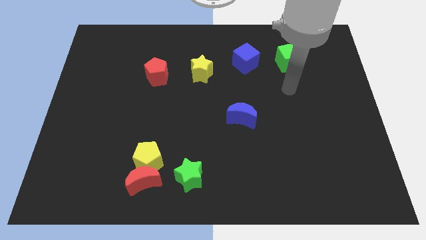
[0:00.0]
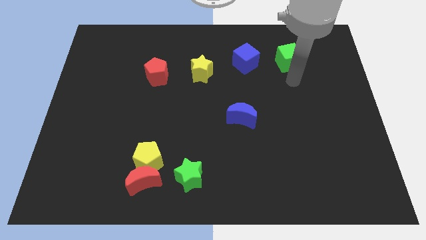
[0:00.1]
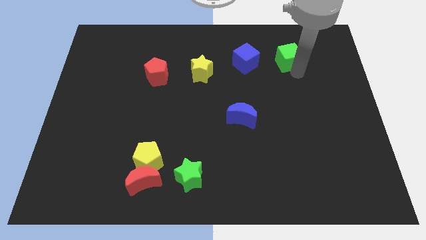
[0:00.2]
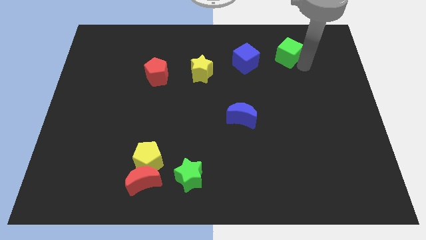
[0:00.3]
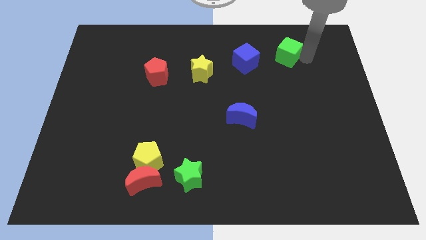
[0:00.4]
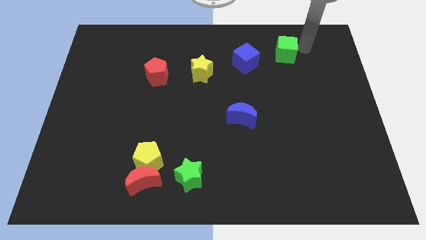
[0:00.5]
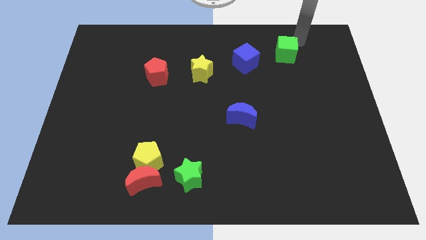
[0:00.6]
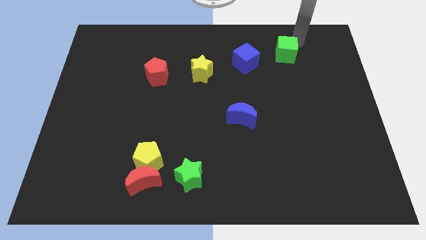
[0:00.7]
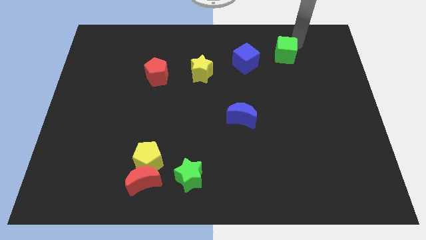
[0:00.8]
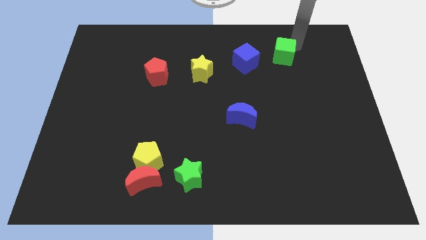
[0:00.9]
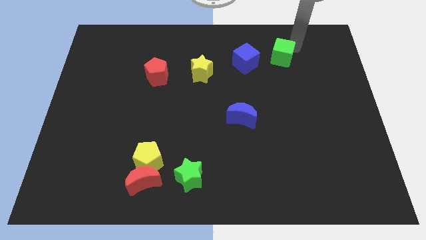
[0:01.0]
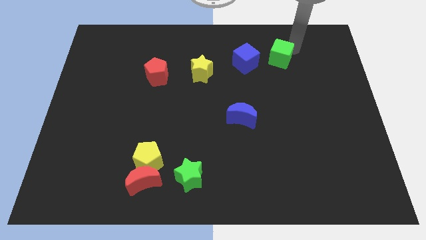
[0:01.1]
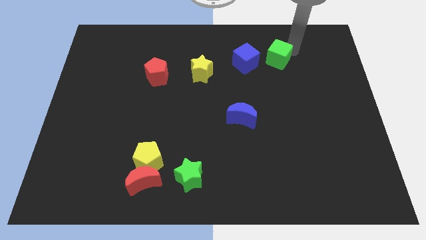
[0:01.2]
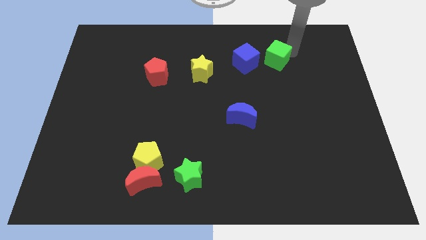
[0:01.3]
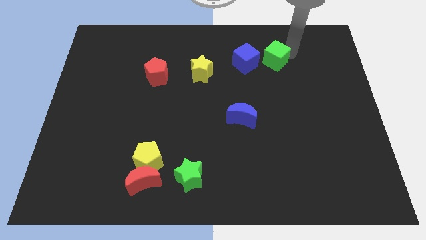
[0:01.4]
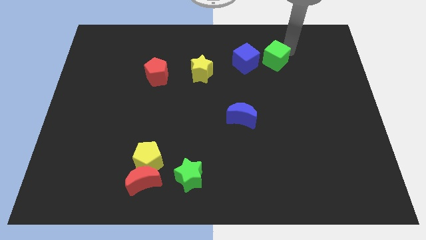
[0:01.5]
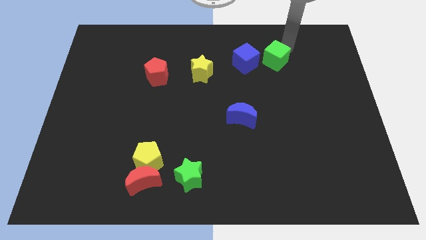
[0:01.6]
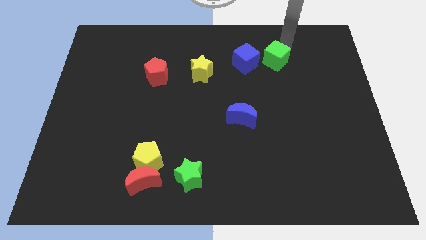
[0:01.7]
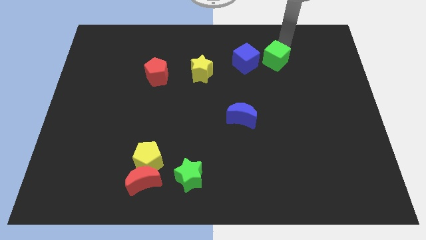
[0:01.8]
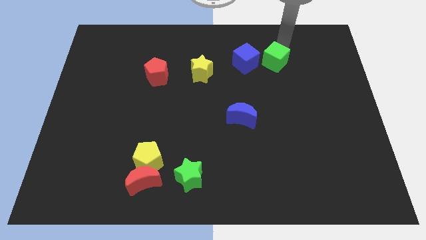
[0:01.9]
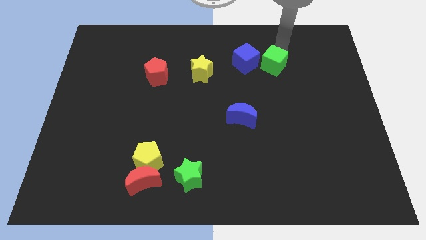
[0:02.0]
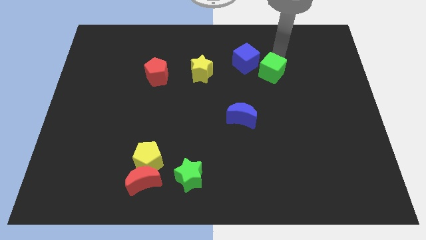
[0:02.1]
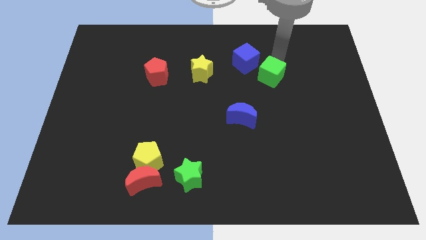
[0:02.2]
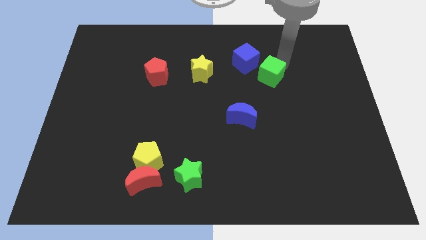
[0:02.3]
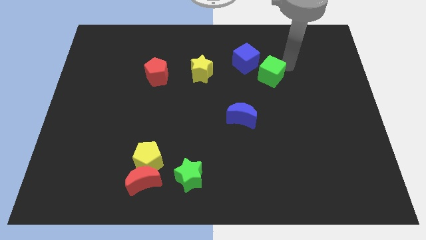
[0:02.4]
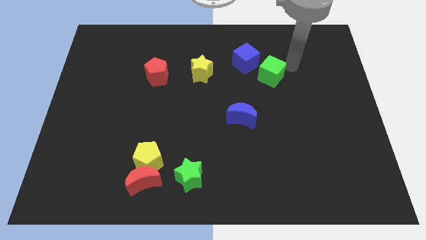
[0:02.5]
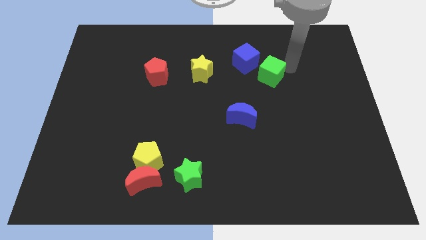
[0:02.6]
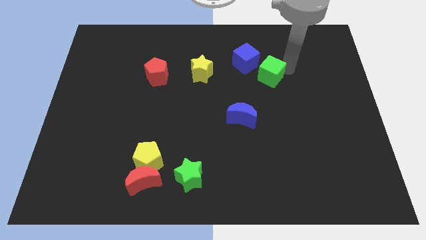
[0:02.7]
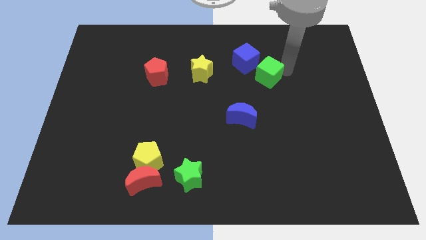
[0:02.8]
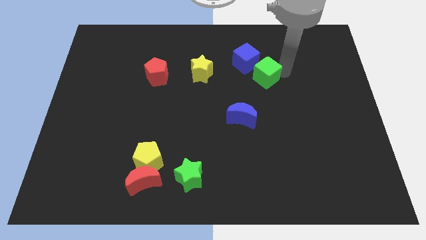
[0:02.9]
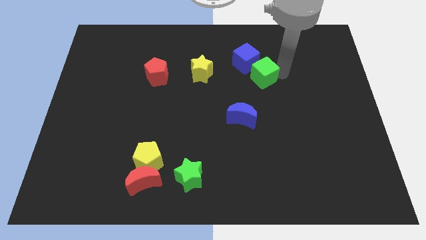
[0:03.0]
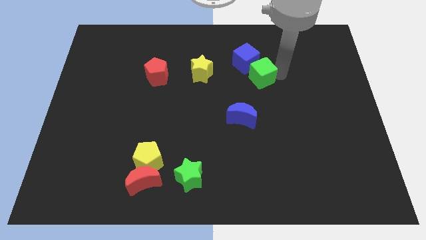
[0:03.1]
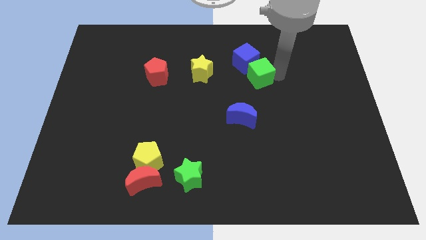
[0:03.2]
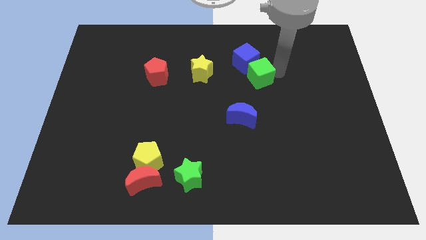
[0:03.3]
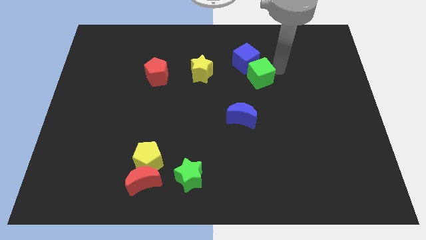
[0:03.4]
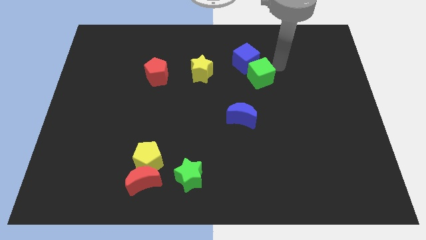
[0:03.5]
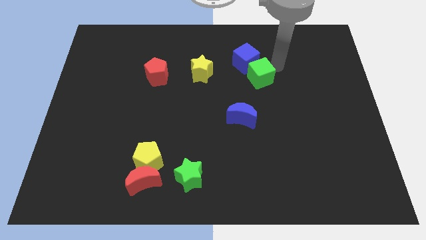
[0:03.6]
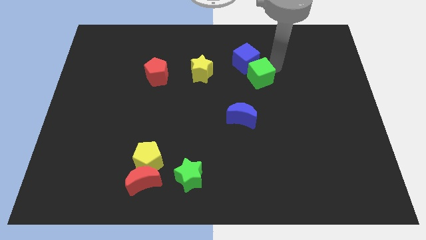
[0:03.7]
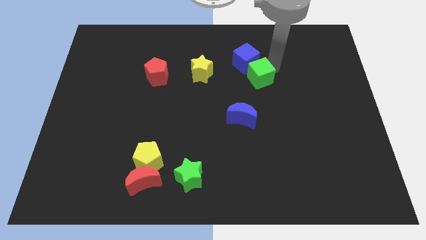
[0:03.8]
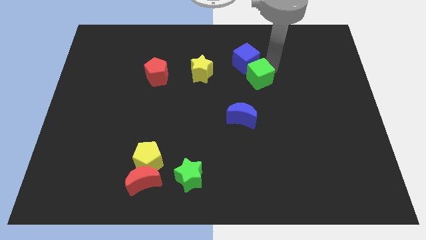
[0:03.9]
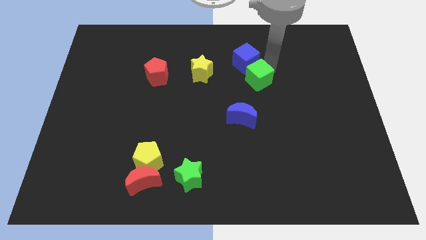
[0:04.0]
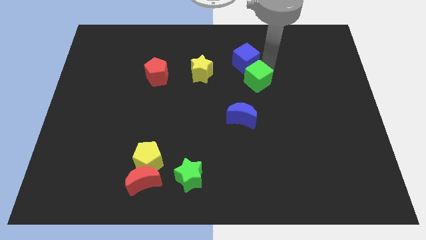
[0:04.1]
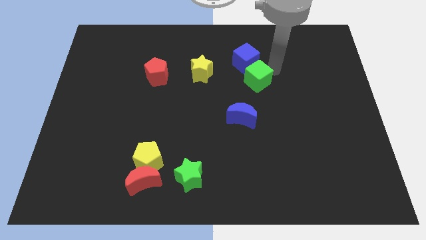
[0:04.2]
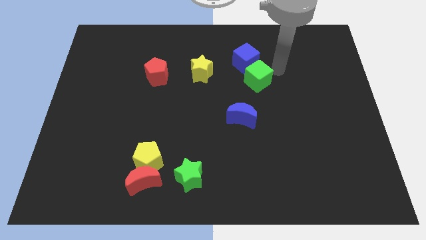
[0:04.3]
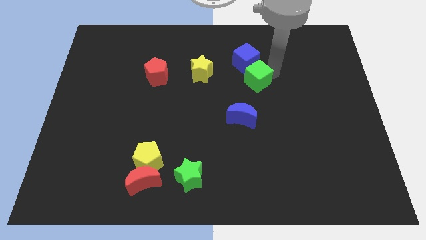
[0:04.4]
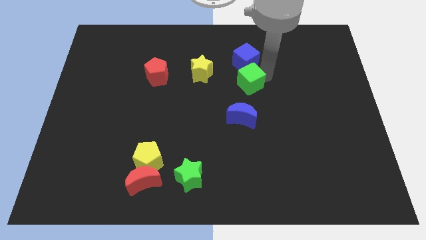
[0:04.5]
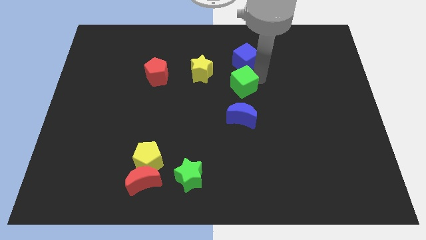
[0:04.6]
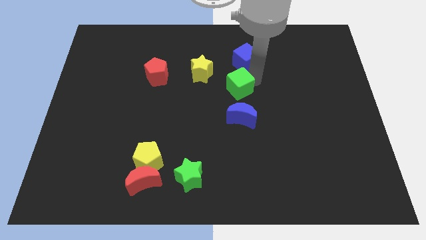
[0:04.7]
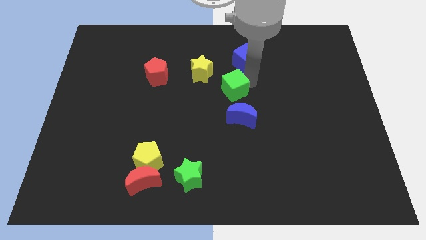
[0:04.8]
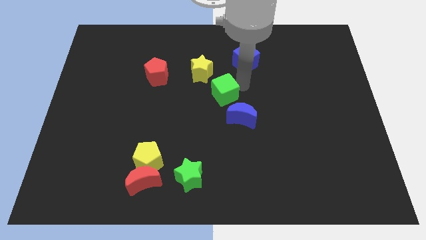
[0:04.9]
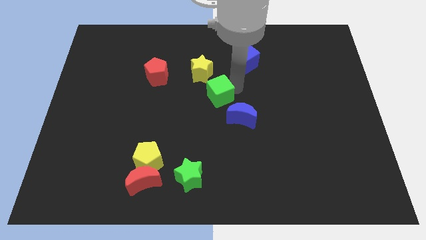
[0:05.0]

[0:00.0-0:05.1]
slide the green cube to the bottom of the yellow star

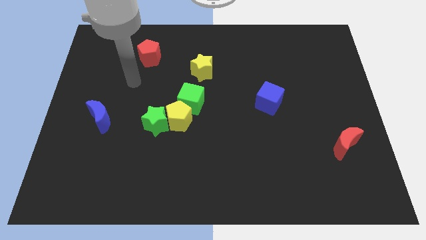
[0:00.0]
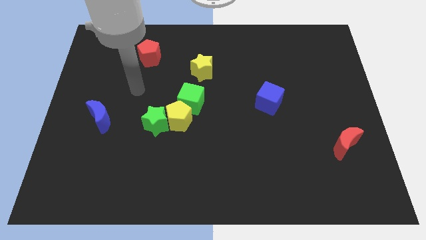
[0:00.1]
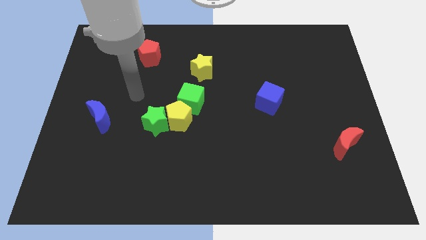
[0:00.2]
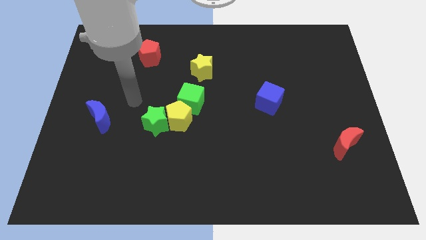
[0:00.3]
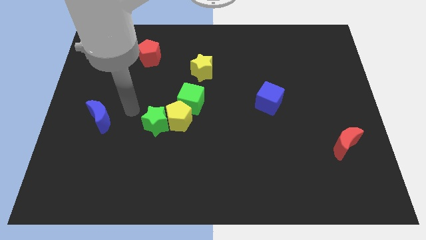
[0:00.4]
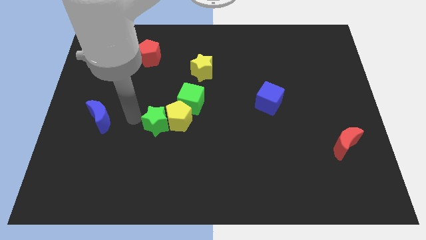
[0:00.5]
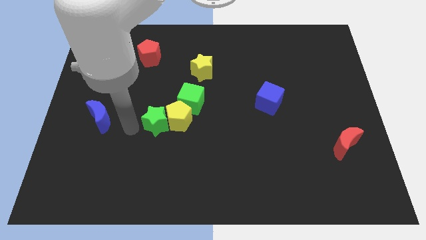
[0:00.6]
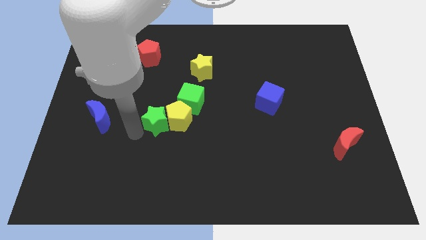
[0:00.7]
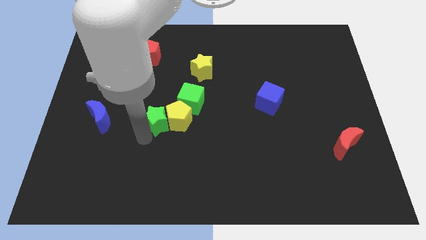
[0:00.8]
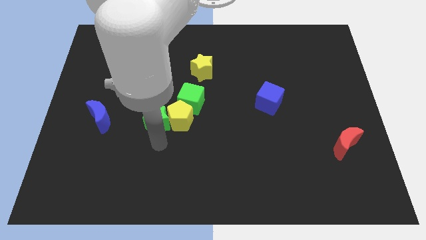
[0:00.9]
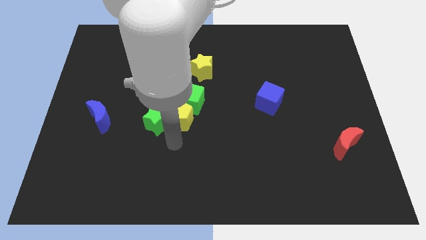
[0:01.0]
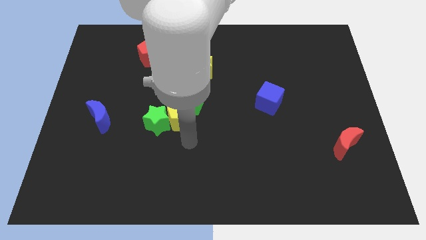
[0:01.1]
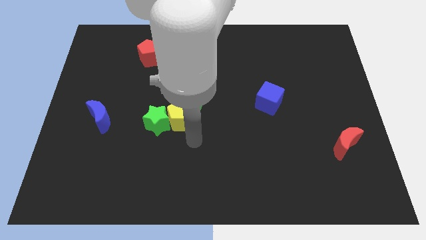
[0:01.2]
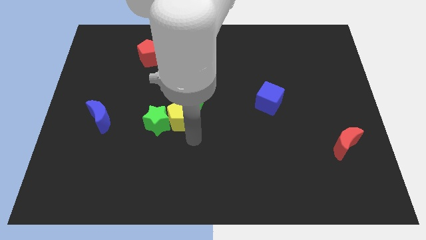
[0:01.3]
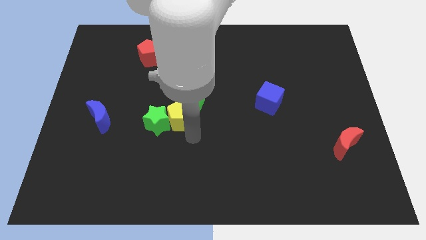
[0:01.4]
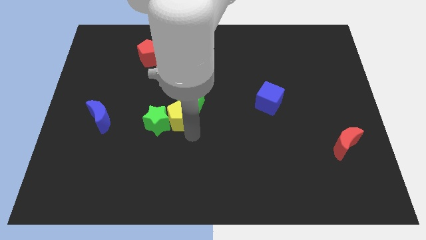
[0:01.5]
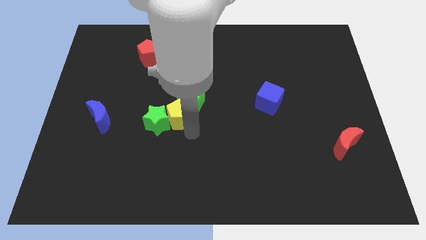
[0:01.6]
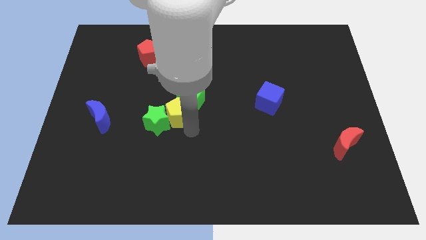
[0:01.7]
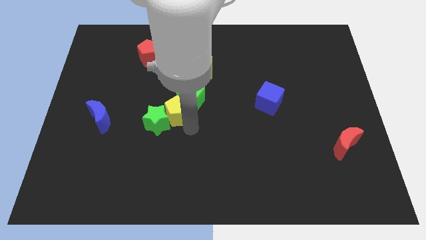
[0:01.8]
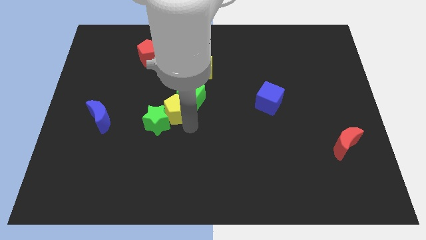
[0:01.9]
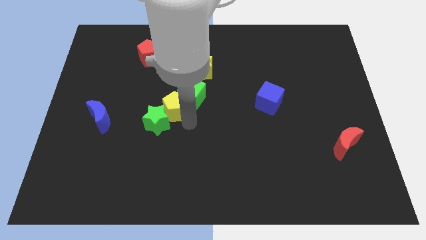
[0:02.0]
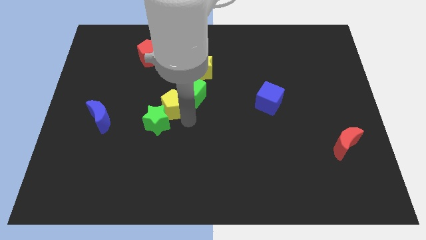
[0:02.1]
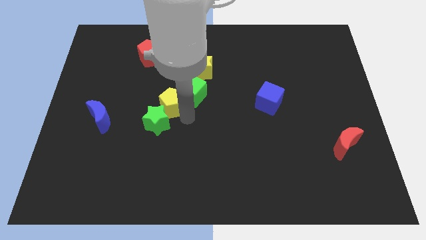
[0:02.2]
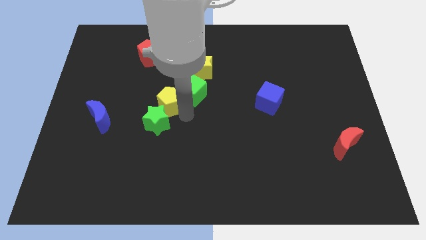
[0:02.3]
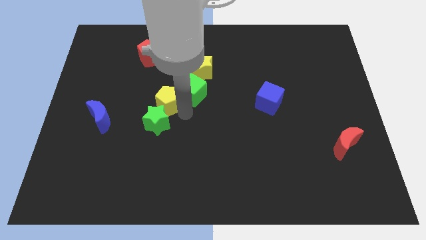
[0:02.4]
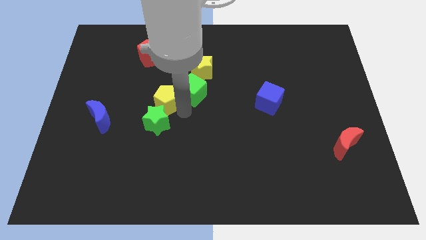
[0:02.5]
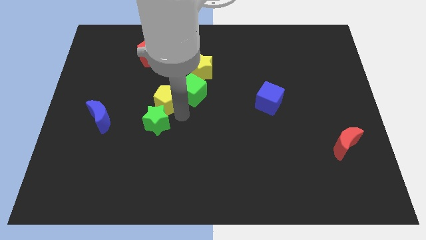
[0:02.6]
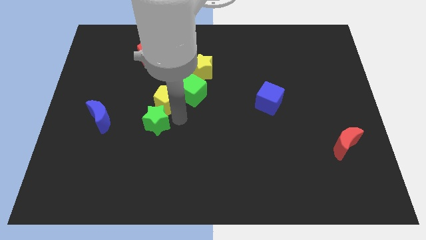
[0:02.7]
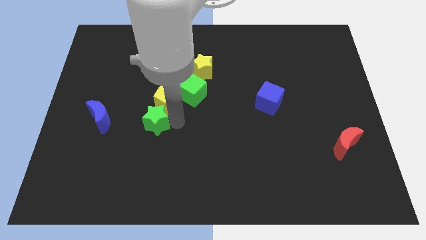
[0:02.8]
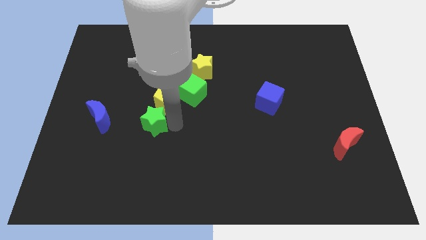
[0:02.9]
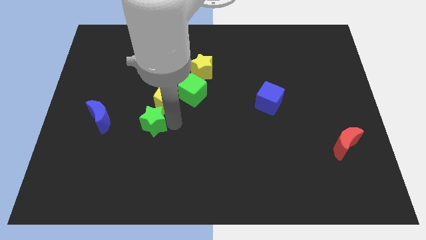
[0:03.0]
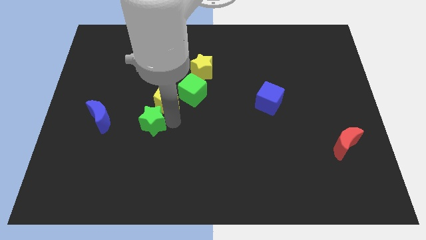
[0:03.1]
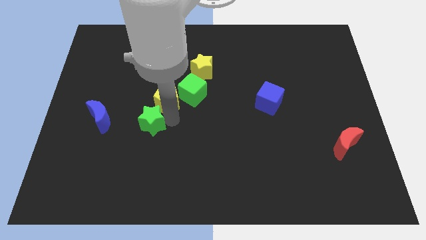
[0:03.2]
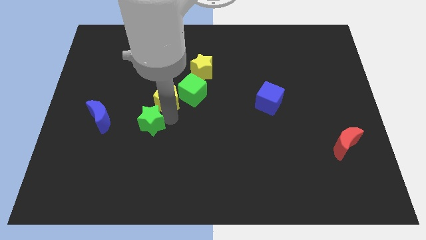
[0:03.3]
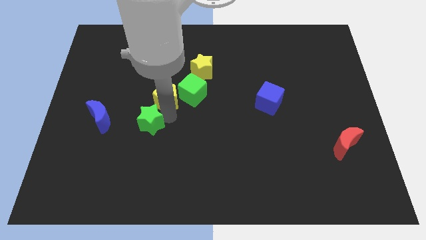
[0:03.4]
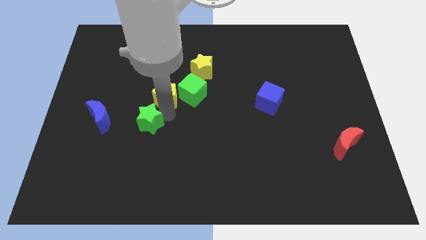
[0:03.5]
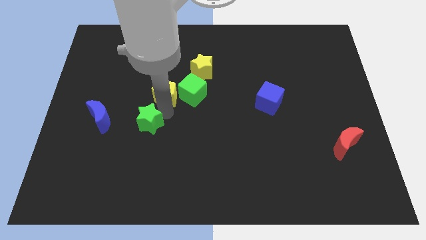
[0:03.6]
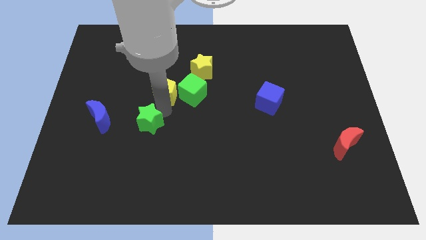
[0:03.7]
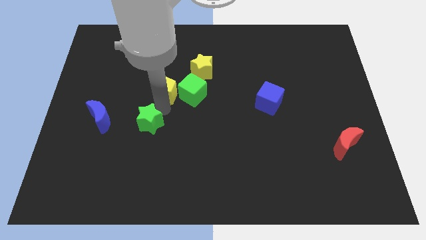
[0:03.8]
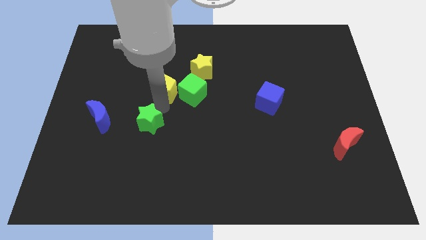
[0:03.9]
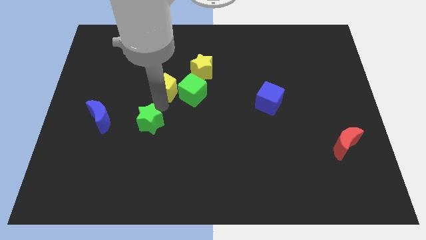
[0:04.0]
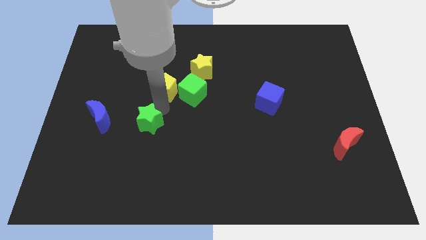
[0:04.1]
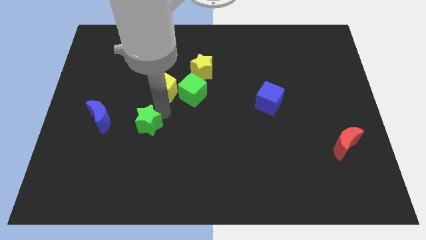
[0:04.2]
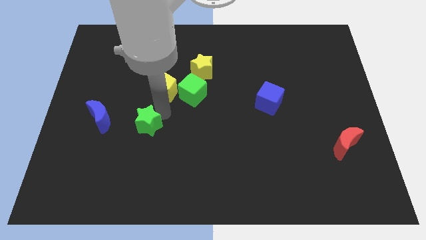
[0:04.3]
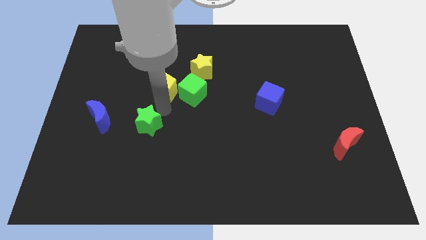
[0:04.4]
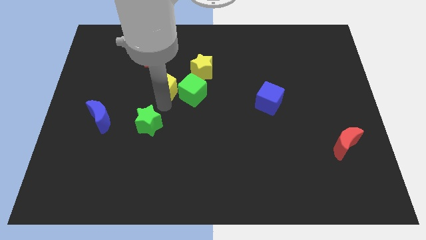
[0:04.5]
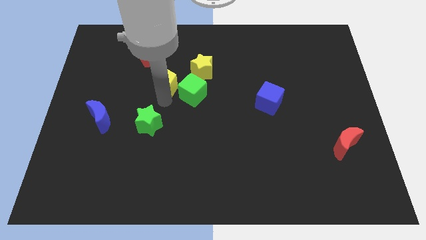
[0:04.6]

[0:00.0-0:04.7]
slide the yellow pentagon to the bottom right side of the red pentagon
